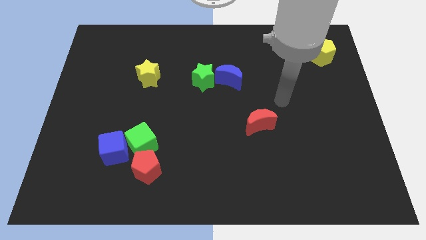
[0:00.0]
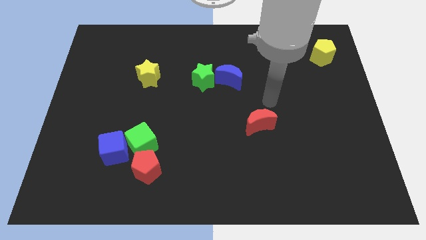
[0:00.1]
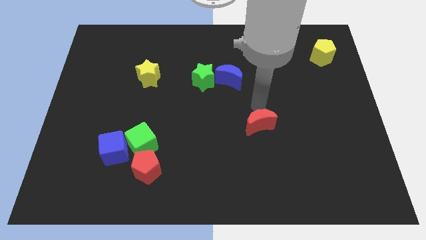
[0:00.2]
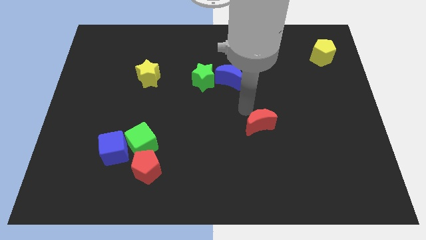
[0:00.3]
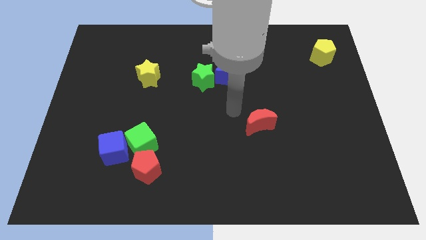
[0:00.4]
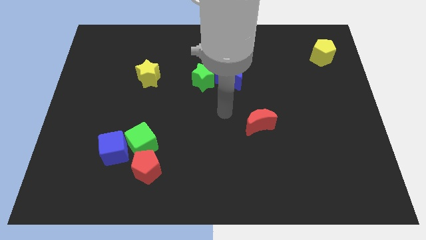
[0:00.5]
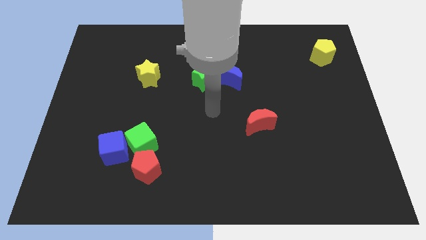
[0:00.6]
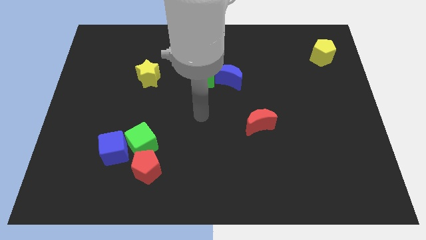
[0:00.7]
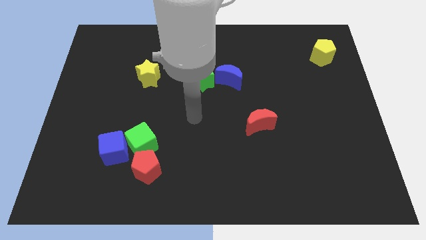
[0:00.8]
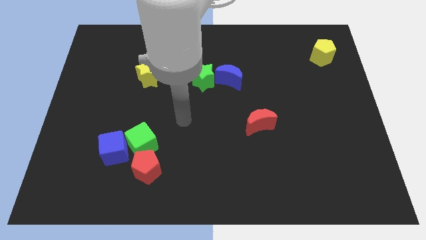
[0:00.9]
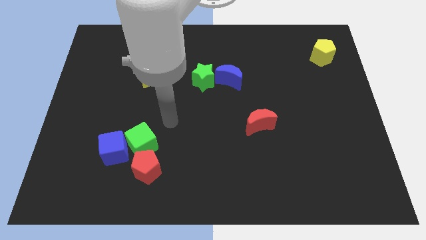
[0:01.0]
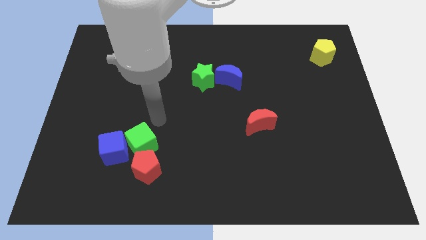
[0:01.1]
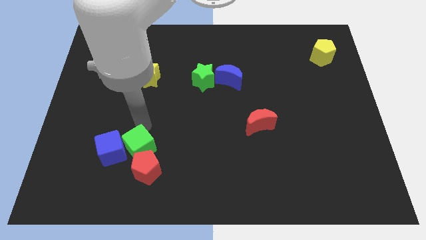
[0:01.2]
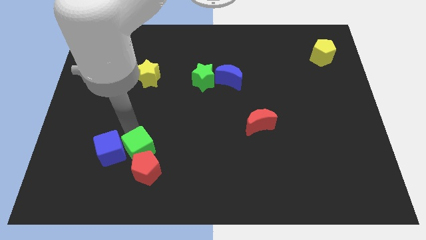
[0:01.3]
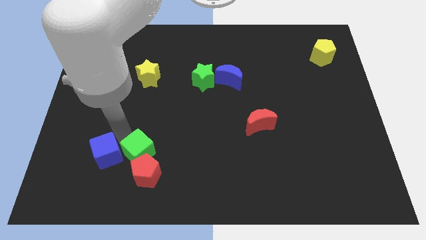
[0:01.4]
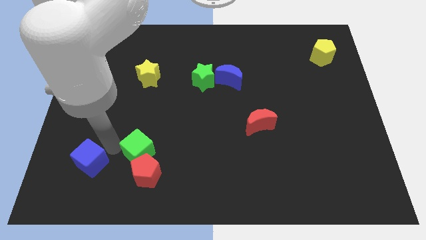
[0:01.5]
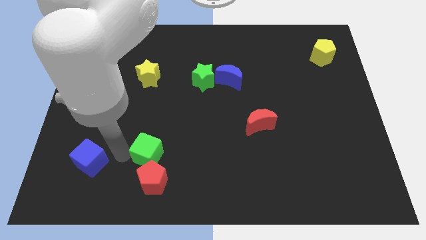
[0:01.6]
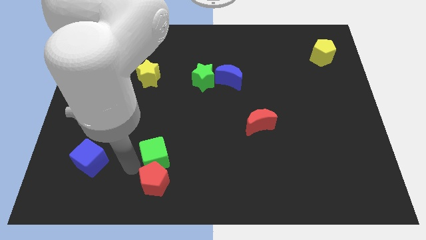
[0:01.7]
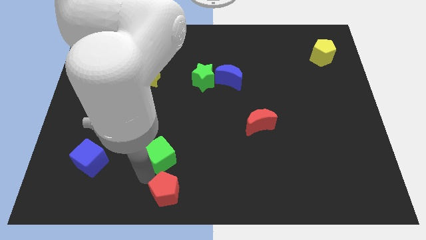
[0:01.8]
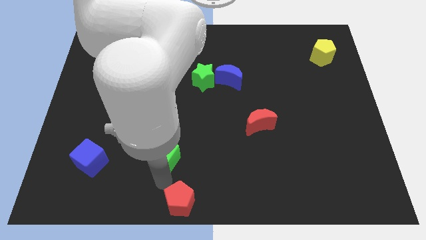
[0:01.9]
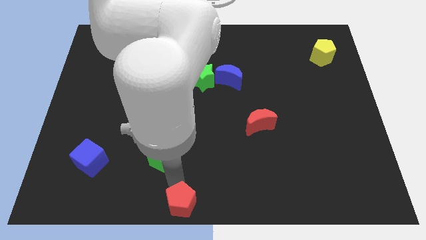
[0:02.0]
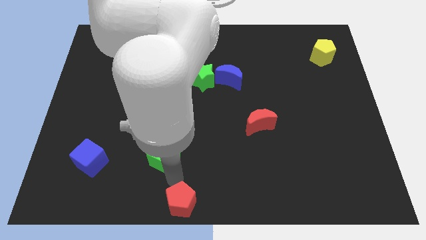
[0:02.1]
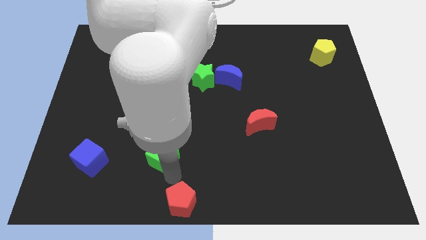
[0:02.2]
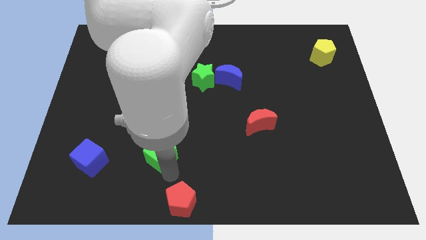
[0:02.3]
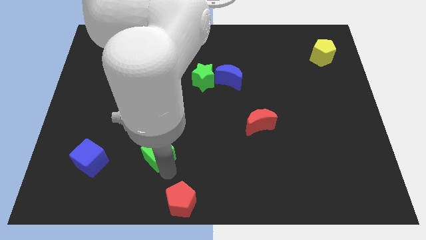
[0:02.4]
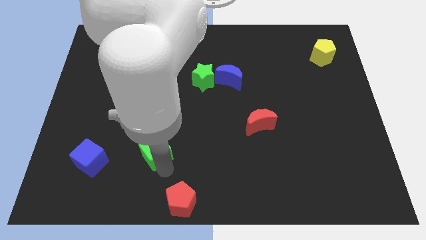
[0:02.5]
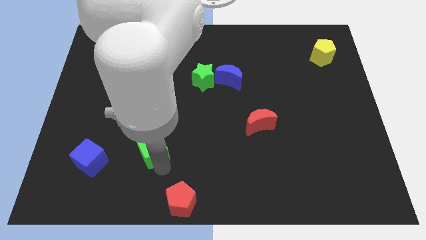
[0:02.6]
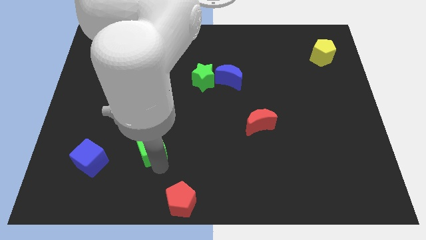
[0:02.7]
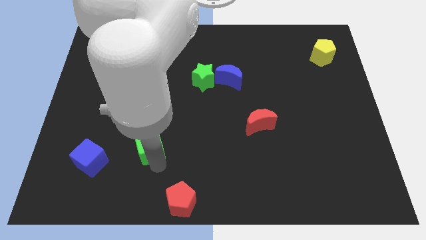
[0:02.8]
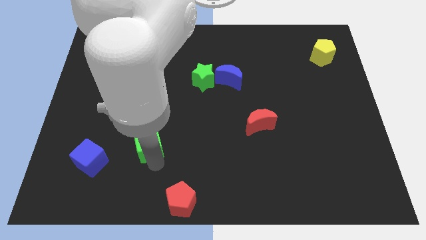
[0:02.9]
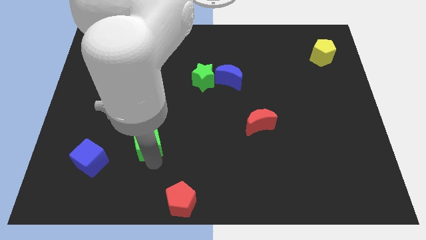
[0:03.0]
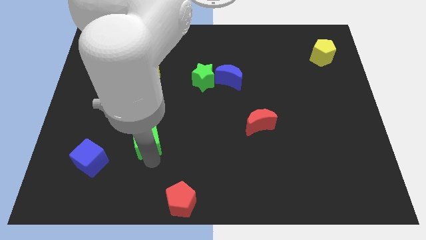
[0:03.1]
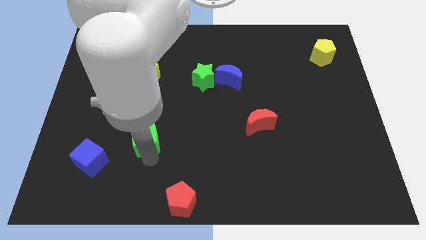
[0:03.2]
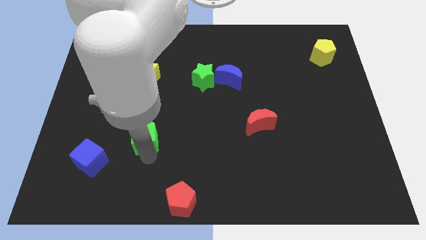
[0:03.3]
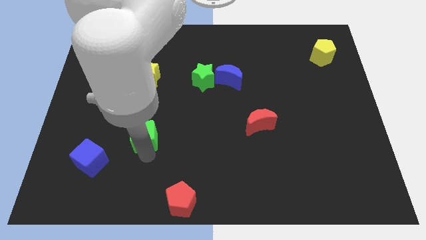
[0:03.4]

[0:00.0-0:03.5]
pull the green cube apart from the blue cube and red pentagon

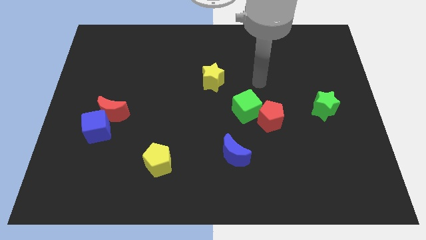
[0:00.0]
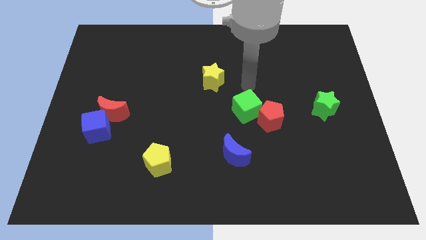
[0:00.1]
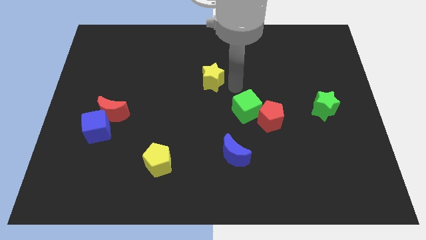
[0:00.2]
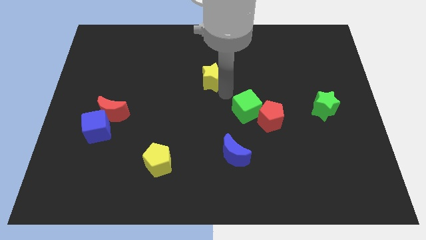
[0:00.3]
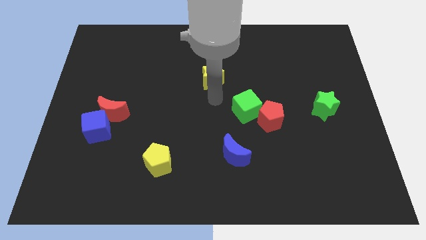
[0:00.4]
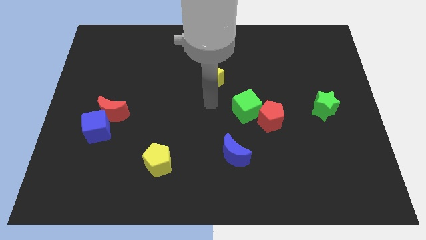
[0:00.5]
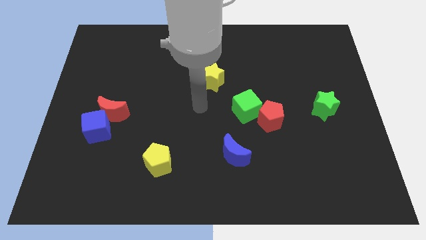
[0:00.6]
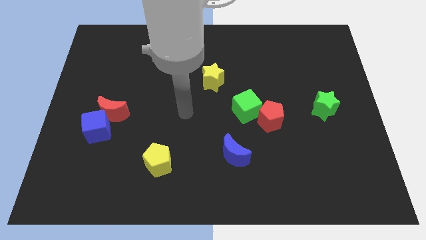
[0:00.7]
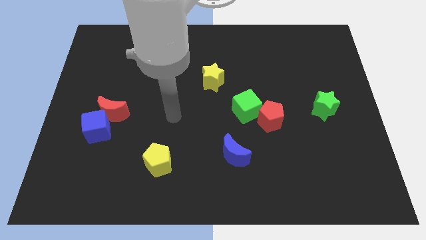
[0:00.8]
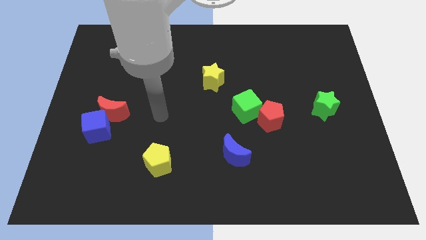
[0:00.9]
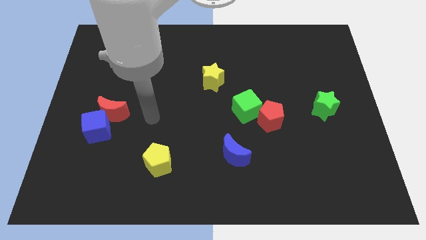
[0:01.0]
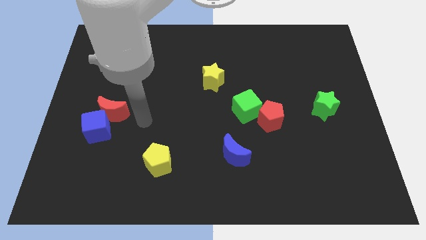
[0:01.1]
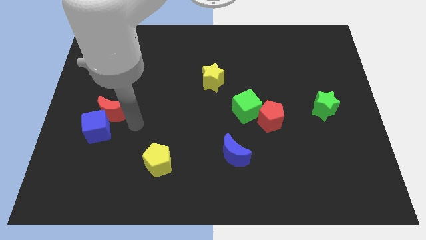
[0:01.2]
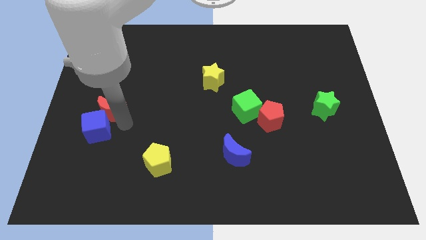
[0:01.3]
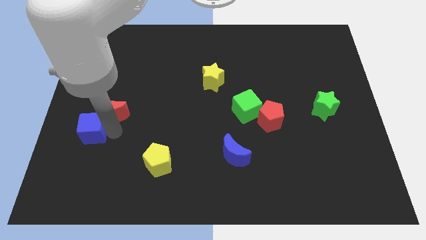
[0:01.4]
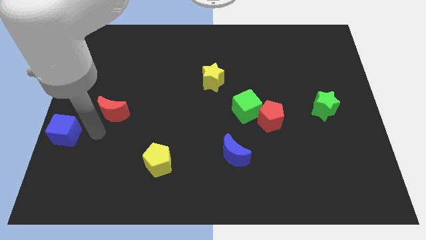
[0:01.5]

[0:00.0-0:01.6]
pull the red moon apart from the blue cube

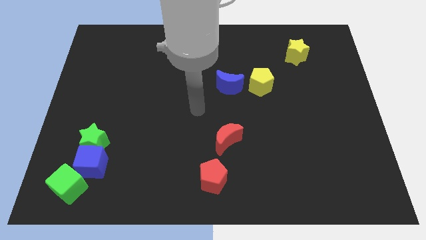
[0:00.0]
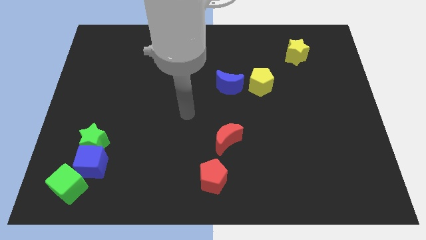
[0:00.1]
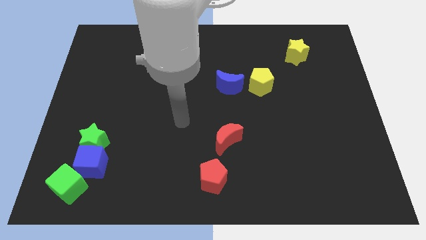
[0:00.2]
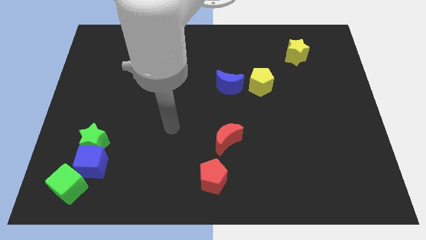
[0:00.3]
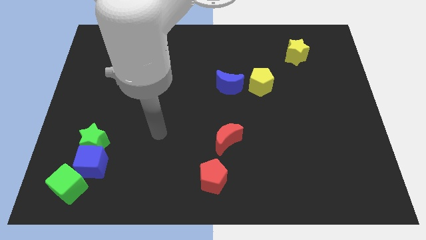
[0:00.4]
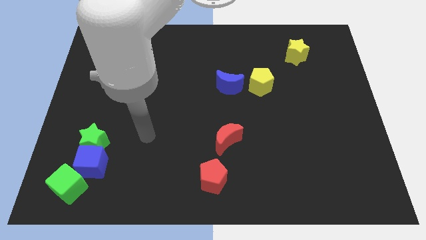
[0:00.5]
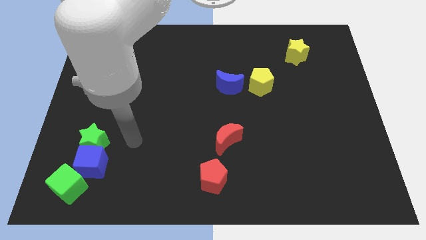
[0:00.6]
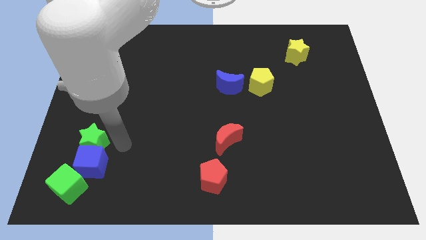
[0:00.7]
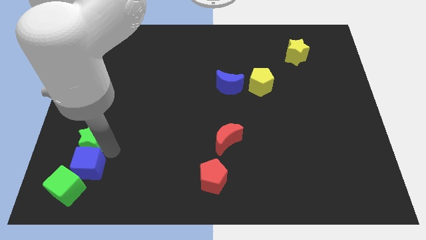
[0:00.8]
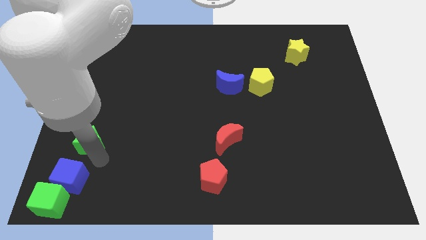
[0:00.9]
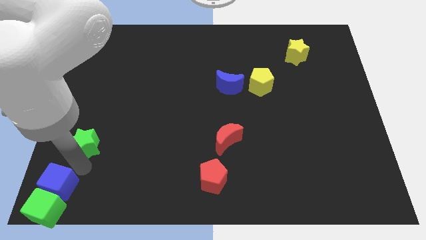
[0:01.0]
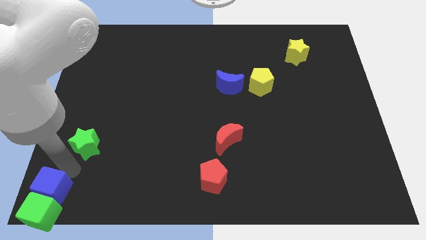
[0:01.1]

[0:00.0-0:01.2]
move the green star away from the blue cube

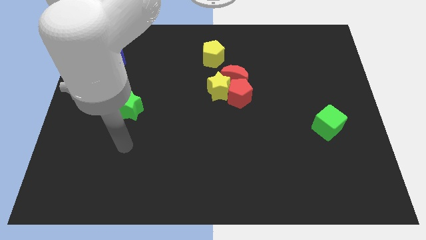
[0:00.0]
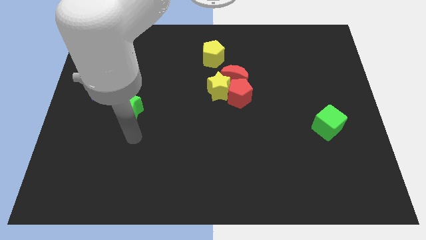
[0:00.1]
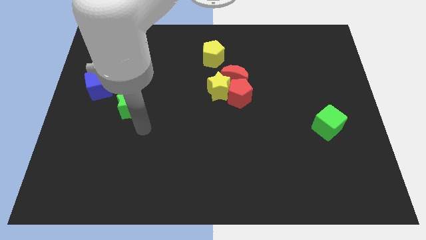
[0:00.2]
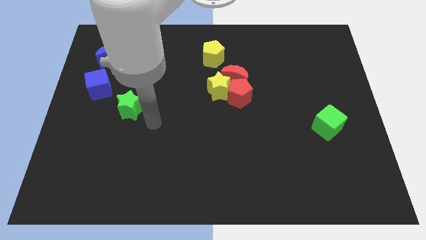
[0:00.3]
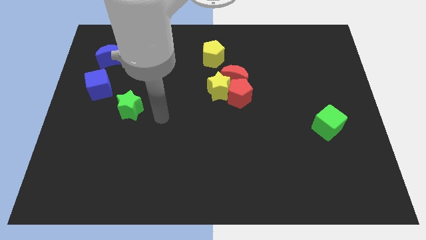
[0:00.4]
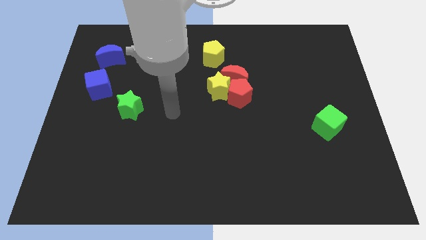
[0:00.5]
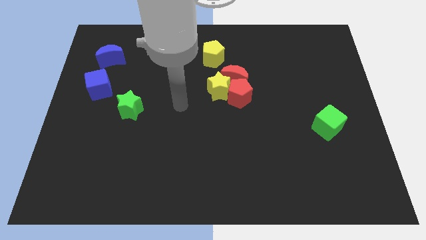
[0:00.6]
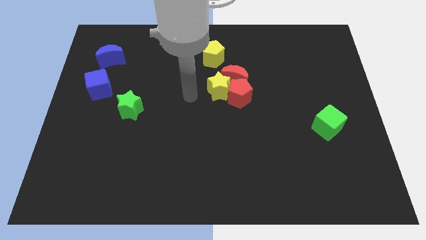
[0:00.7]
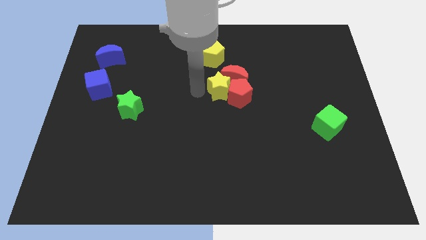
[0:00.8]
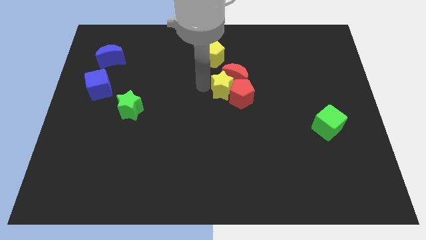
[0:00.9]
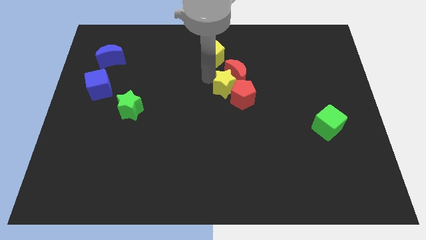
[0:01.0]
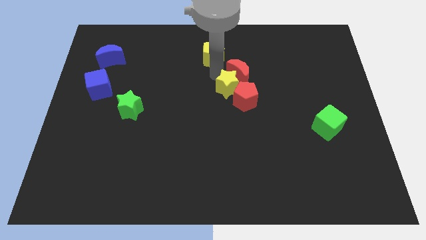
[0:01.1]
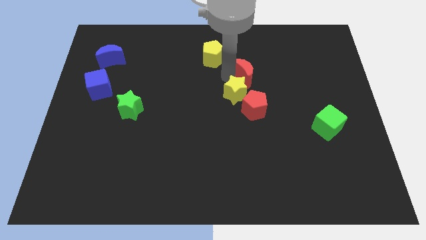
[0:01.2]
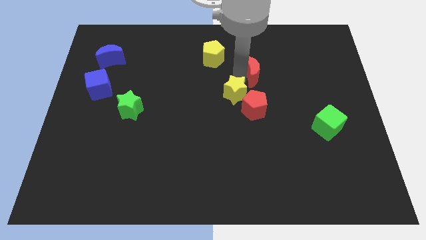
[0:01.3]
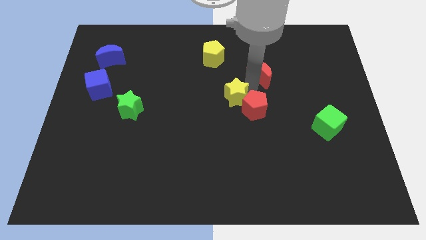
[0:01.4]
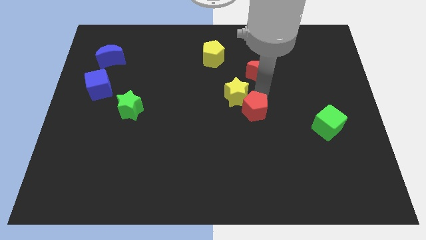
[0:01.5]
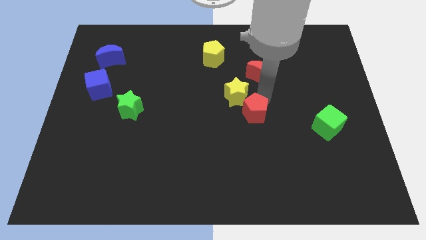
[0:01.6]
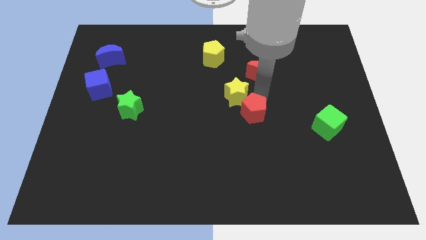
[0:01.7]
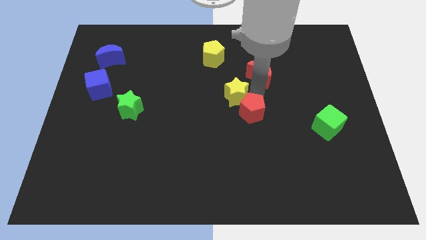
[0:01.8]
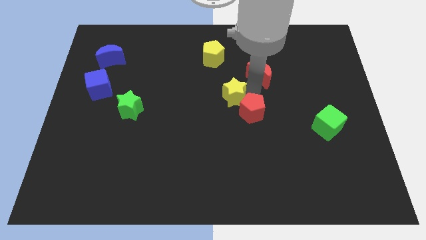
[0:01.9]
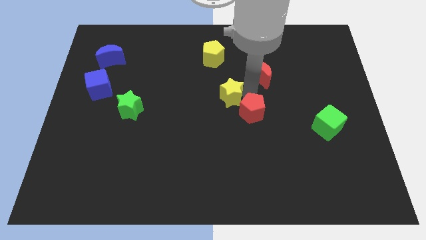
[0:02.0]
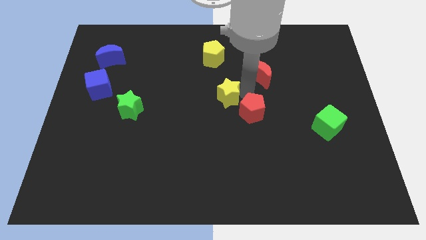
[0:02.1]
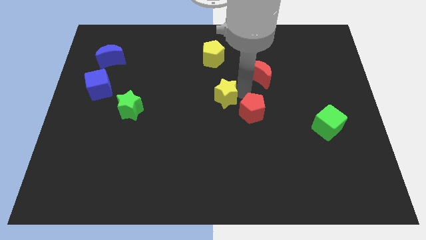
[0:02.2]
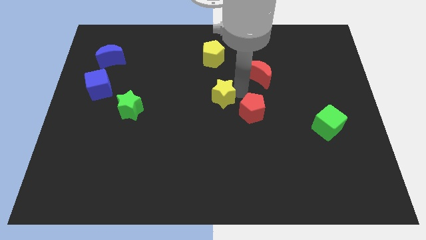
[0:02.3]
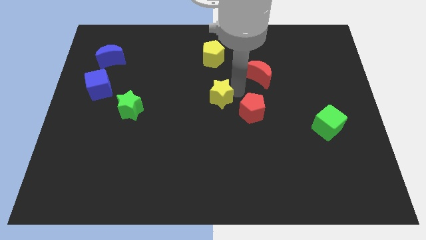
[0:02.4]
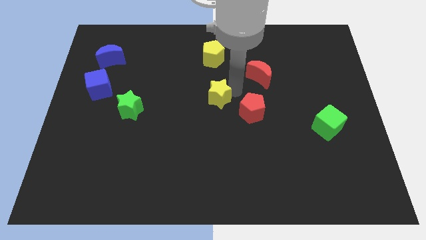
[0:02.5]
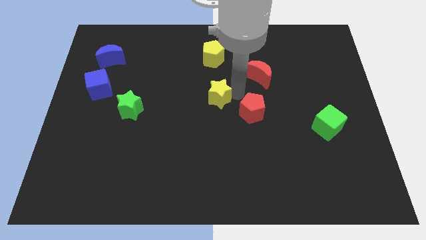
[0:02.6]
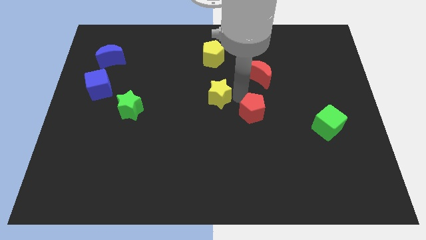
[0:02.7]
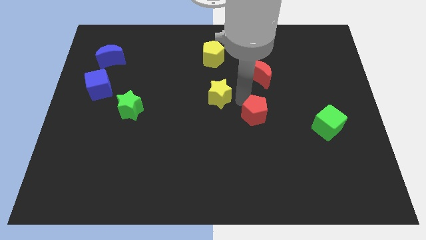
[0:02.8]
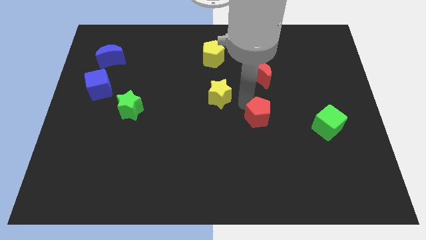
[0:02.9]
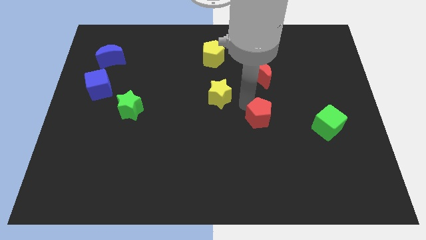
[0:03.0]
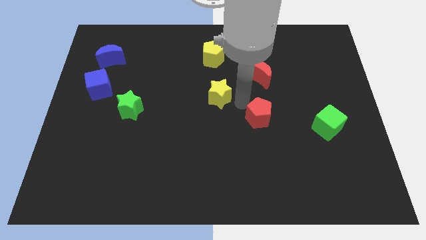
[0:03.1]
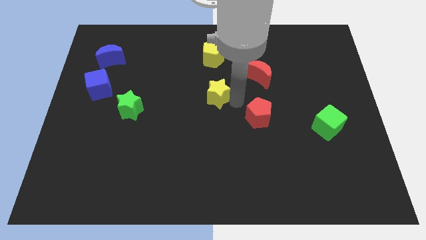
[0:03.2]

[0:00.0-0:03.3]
separate the yellow star from the red pentagon and red moon
